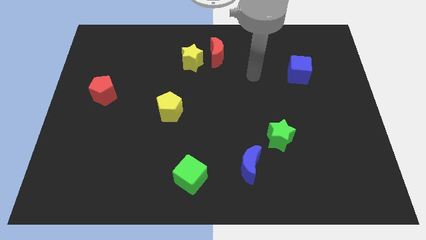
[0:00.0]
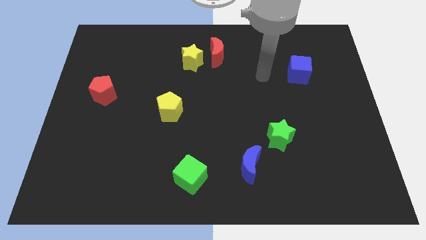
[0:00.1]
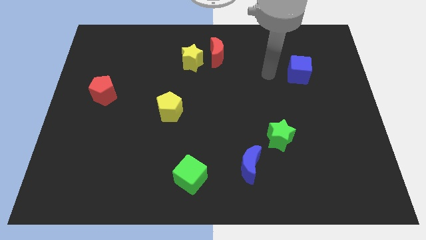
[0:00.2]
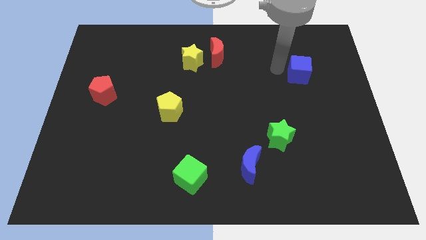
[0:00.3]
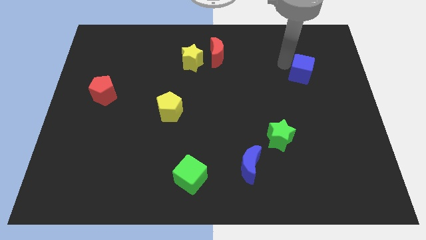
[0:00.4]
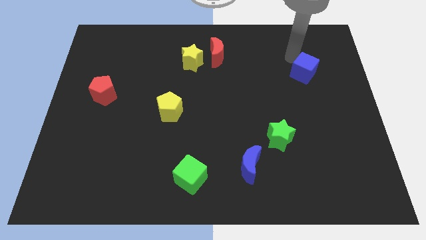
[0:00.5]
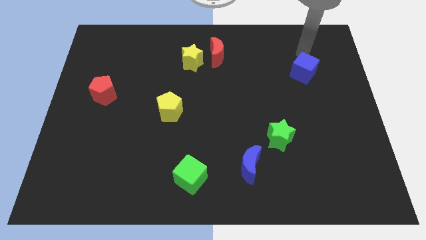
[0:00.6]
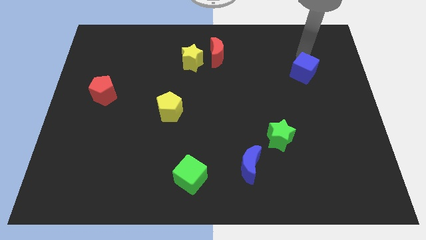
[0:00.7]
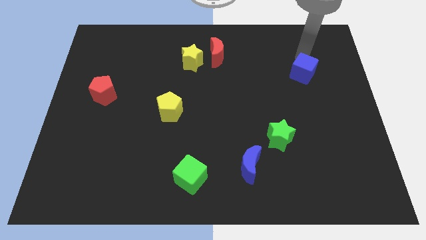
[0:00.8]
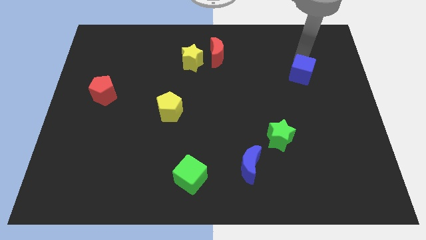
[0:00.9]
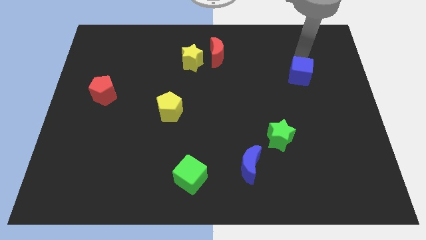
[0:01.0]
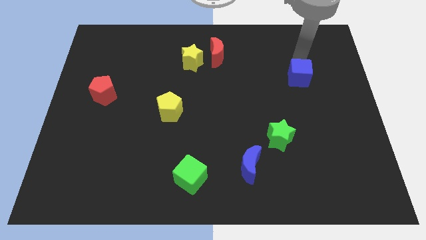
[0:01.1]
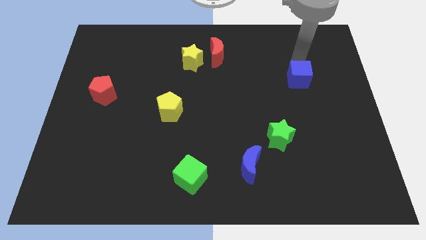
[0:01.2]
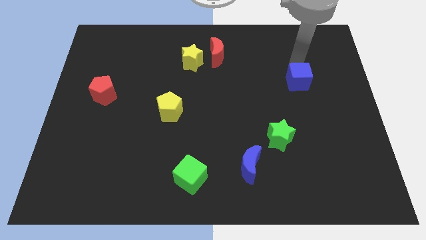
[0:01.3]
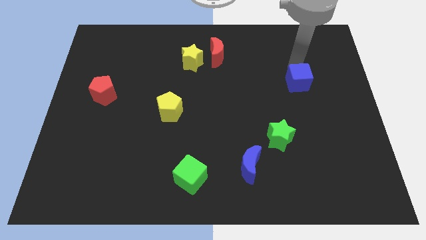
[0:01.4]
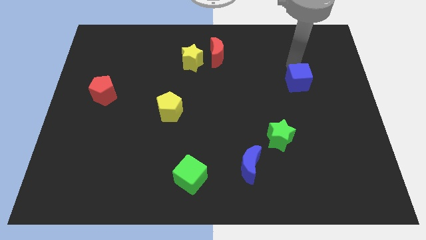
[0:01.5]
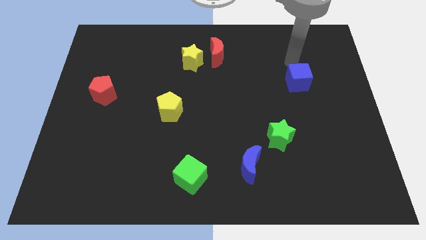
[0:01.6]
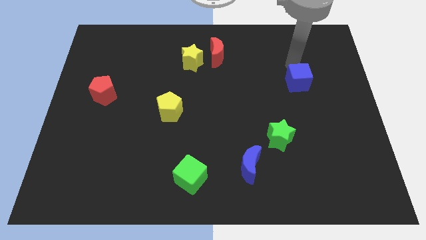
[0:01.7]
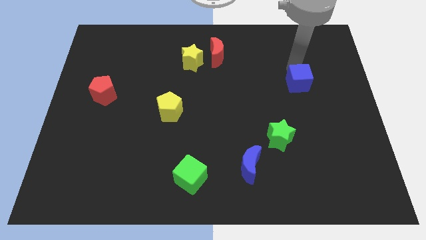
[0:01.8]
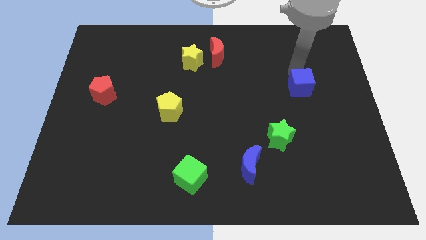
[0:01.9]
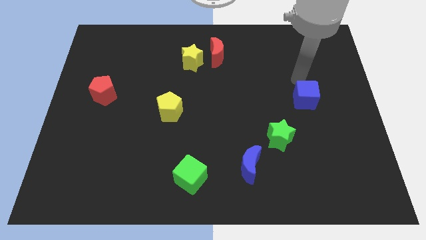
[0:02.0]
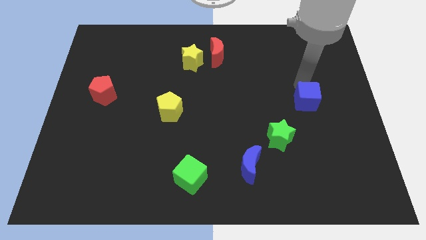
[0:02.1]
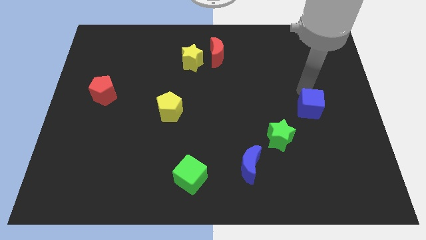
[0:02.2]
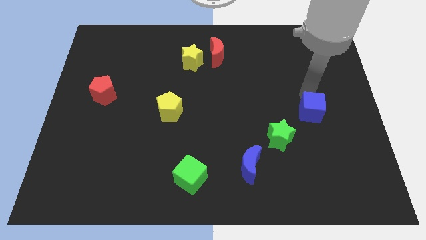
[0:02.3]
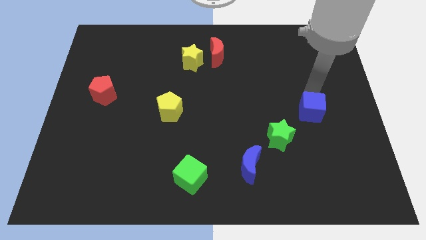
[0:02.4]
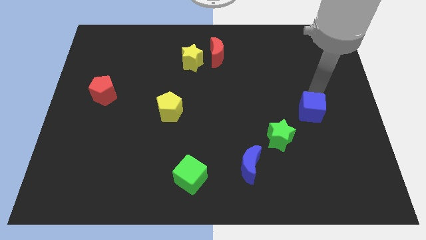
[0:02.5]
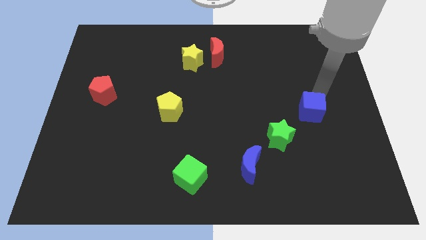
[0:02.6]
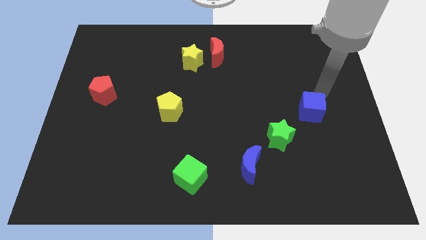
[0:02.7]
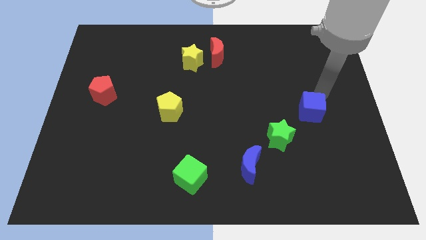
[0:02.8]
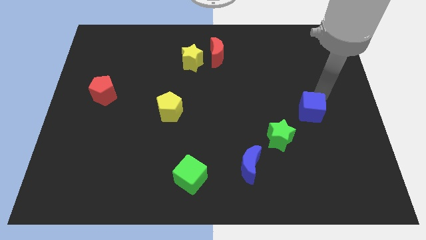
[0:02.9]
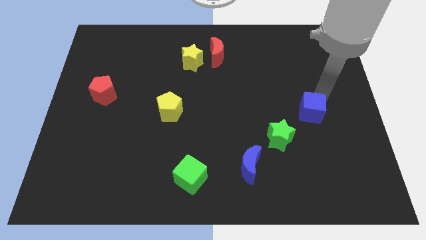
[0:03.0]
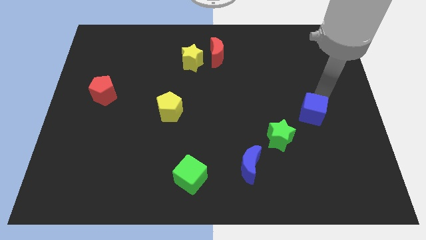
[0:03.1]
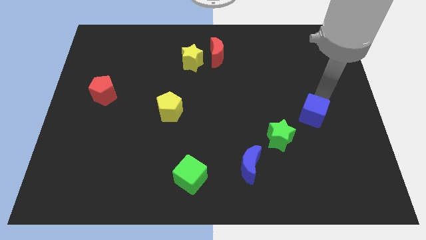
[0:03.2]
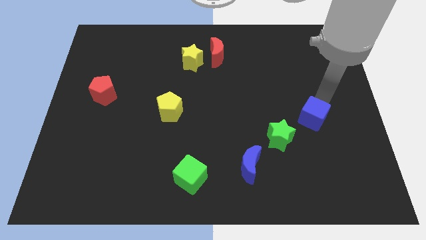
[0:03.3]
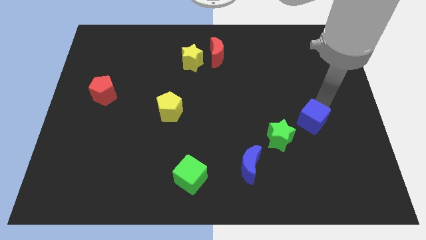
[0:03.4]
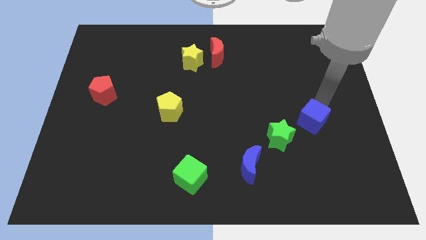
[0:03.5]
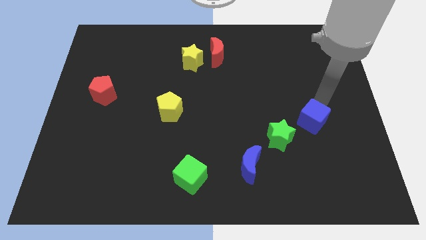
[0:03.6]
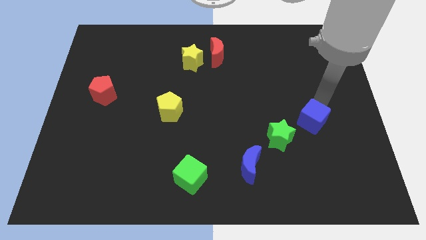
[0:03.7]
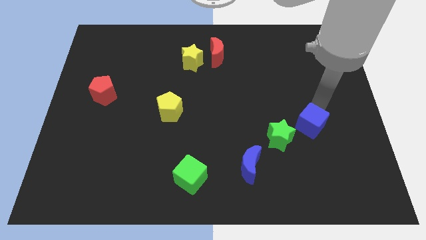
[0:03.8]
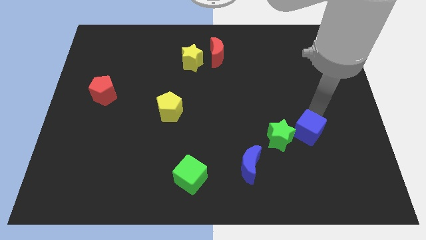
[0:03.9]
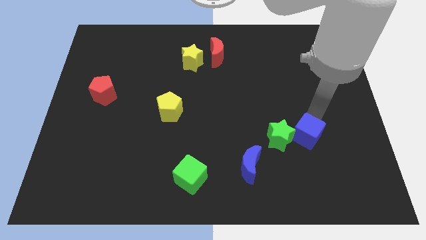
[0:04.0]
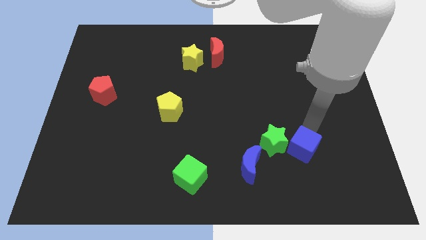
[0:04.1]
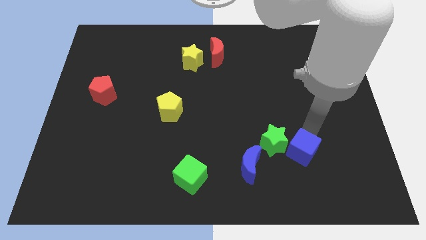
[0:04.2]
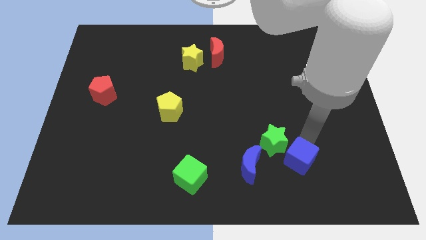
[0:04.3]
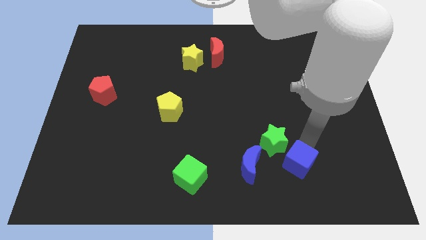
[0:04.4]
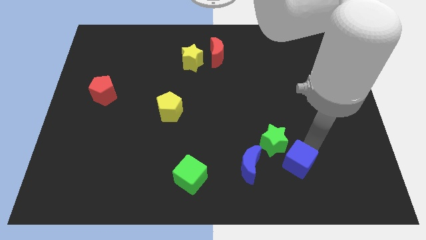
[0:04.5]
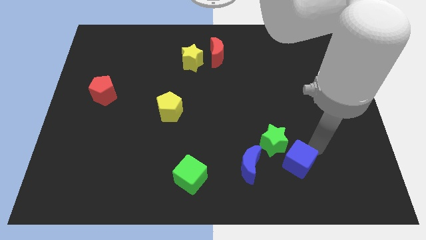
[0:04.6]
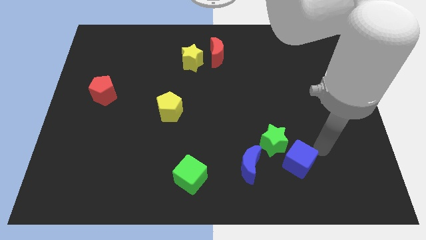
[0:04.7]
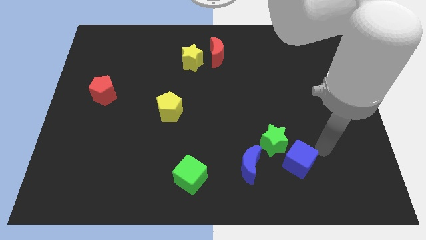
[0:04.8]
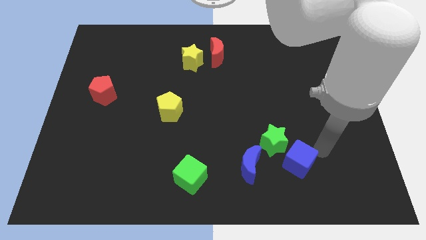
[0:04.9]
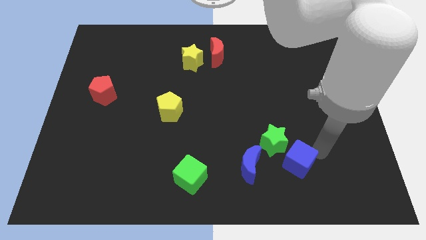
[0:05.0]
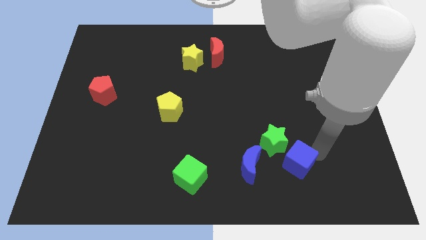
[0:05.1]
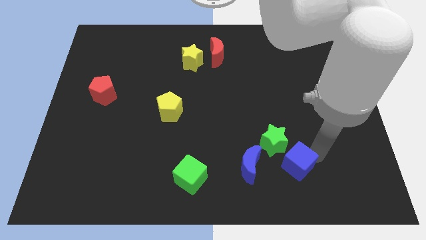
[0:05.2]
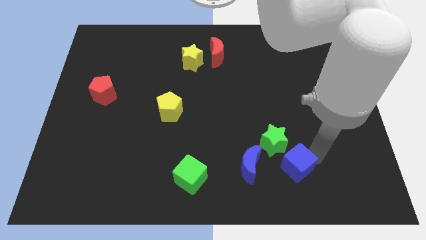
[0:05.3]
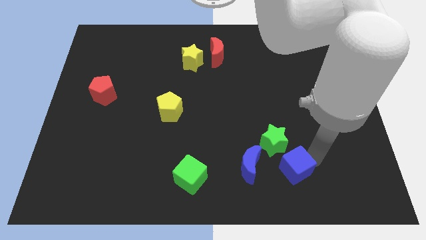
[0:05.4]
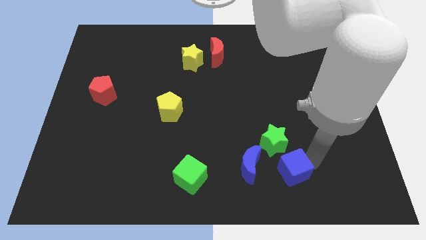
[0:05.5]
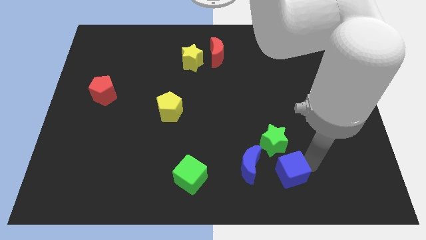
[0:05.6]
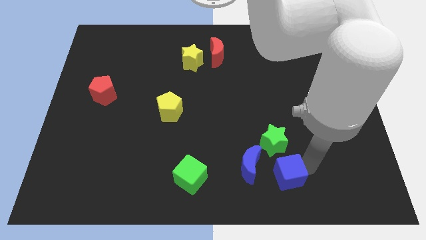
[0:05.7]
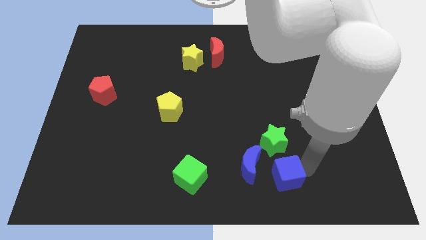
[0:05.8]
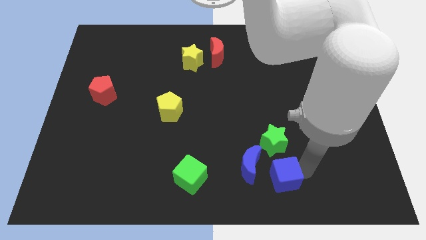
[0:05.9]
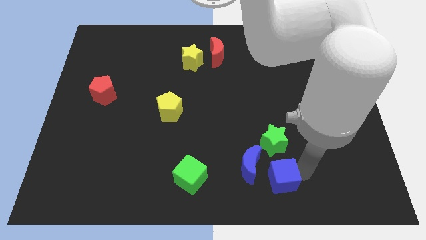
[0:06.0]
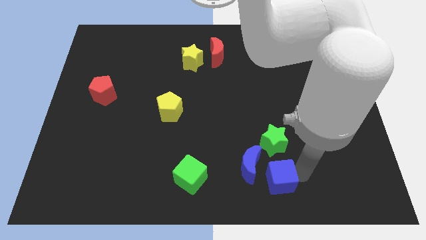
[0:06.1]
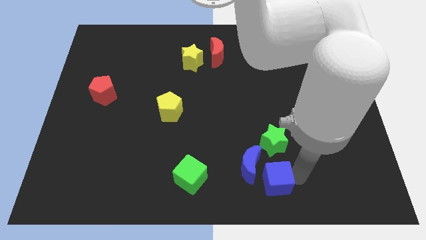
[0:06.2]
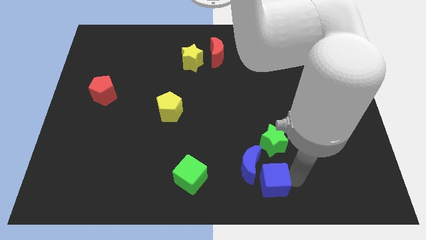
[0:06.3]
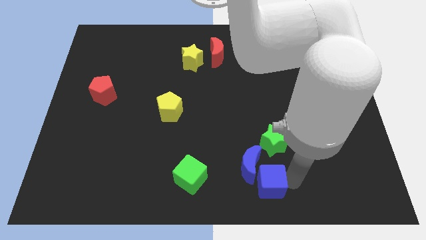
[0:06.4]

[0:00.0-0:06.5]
push the blue cube to the right of the green cube
